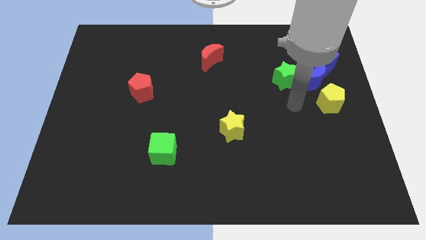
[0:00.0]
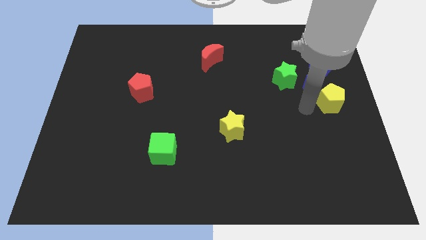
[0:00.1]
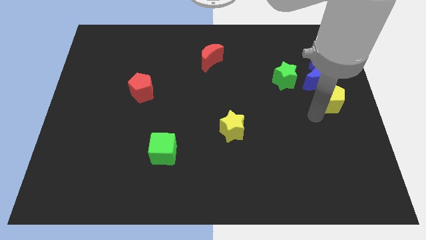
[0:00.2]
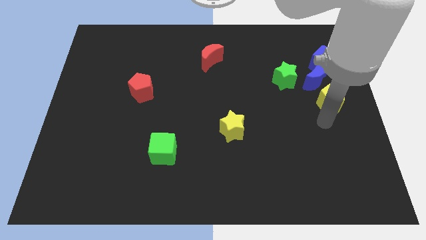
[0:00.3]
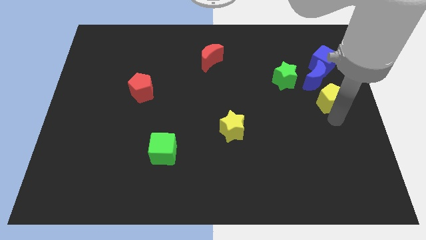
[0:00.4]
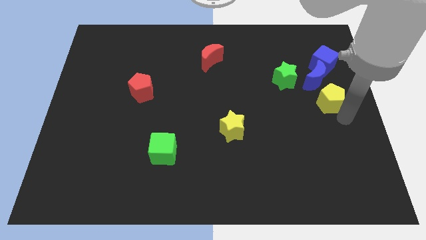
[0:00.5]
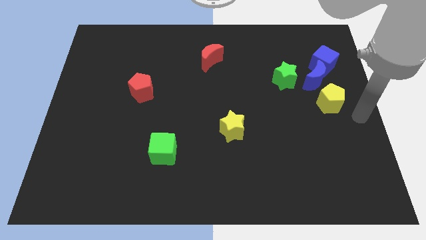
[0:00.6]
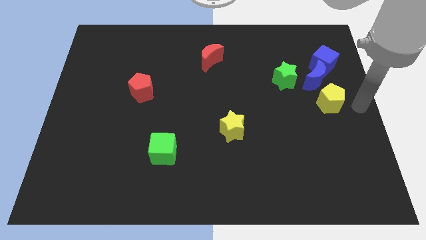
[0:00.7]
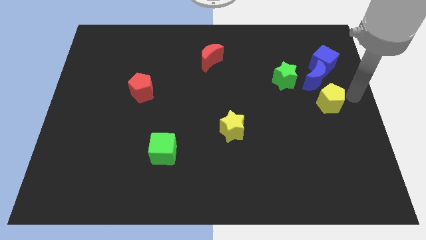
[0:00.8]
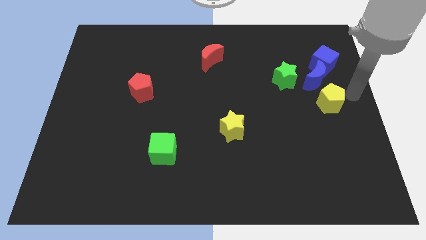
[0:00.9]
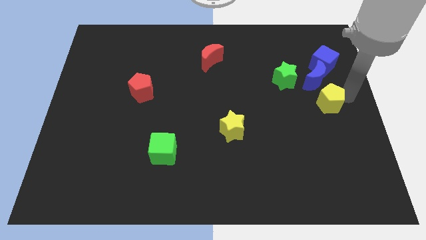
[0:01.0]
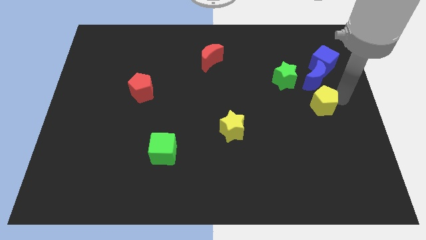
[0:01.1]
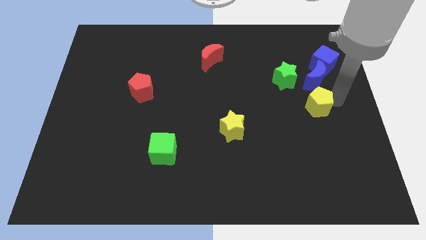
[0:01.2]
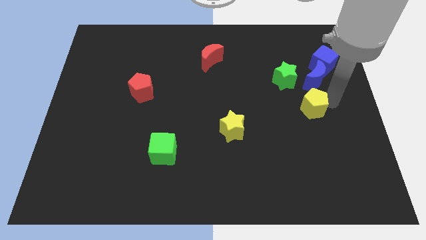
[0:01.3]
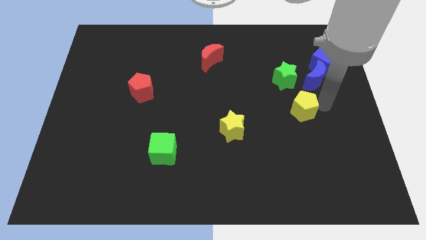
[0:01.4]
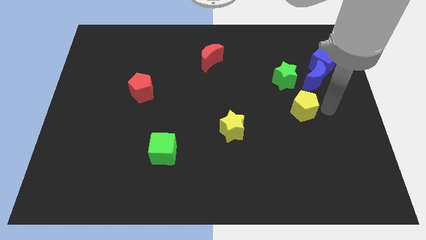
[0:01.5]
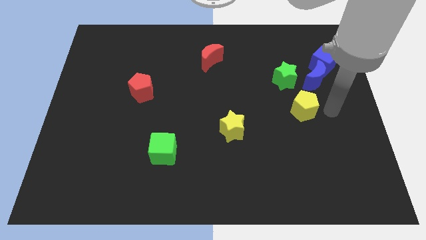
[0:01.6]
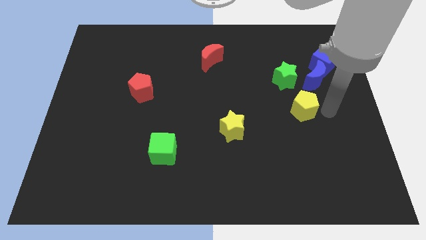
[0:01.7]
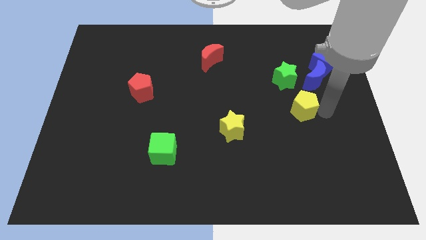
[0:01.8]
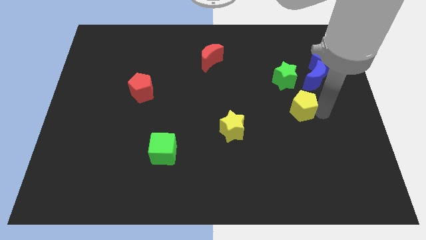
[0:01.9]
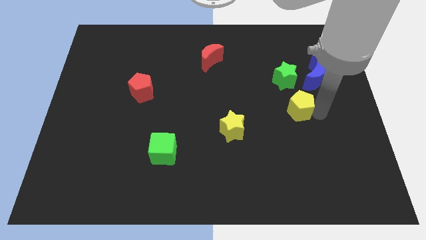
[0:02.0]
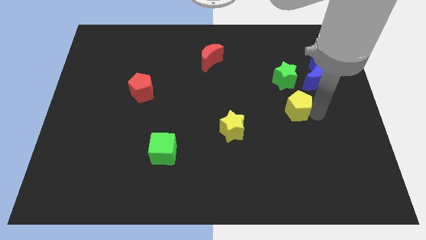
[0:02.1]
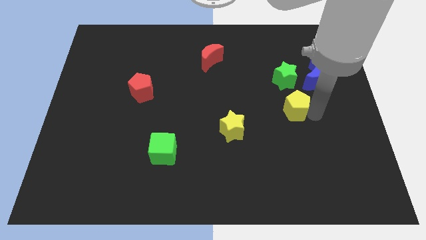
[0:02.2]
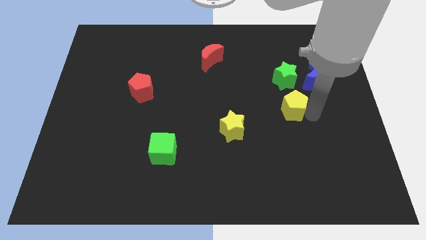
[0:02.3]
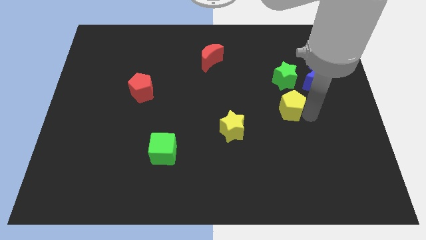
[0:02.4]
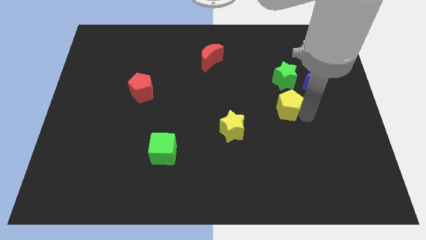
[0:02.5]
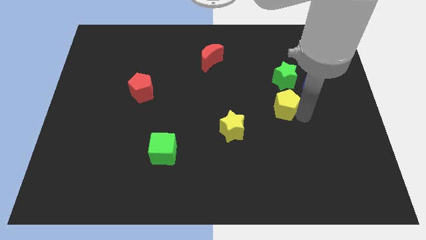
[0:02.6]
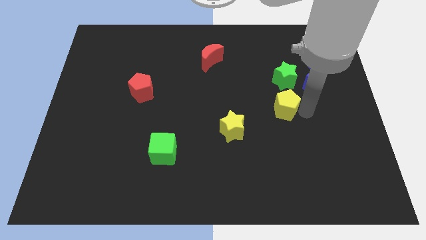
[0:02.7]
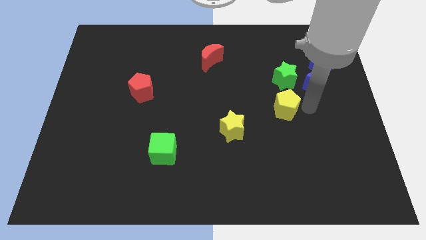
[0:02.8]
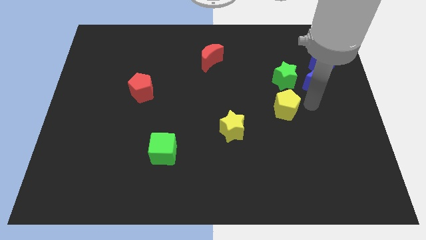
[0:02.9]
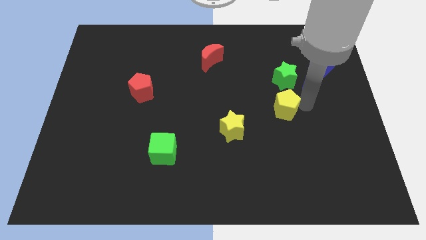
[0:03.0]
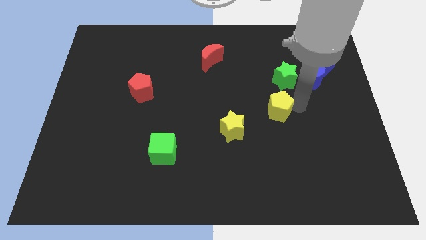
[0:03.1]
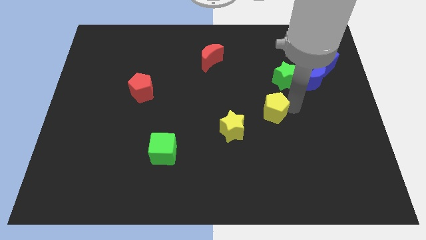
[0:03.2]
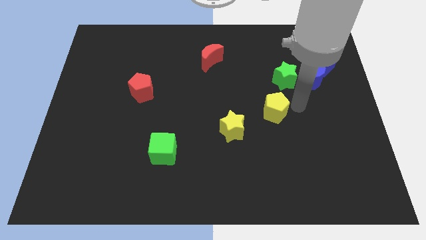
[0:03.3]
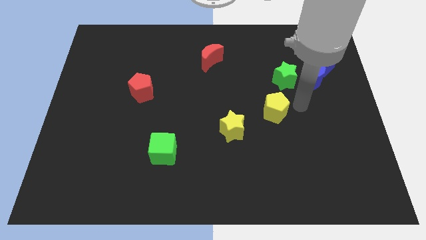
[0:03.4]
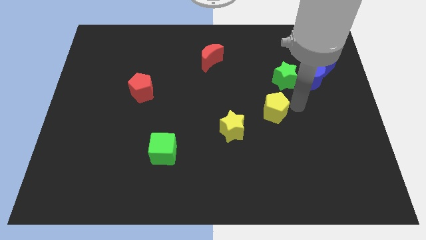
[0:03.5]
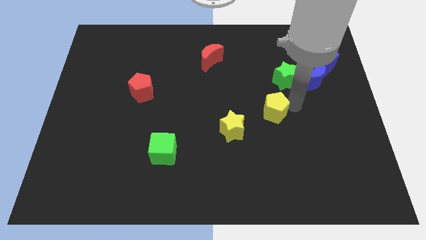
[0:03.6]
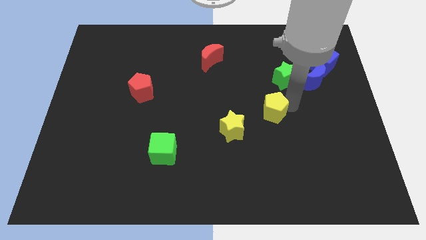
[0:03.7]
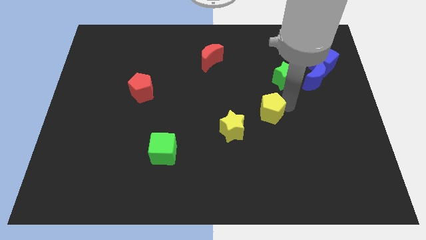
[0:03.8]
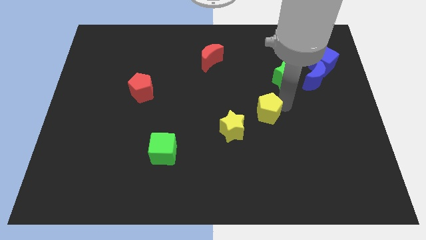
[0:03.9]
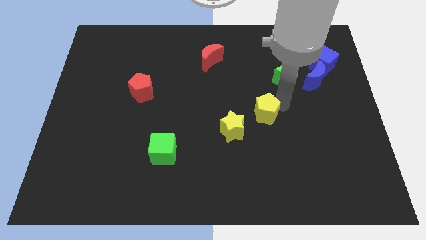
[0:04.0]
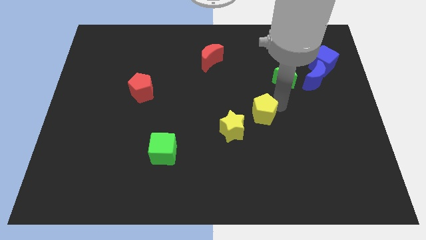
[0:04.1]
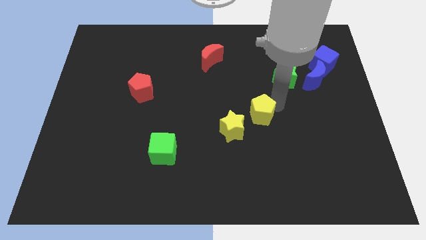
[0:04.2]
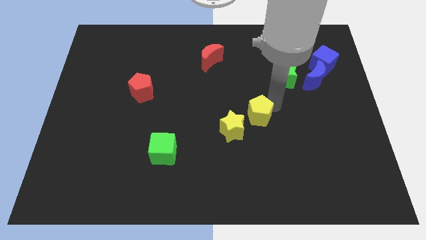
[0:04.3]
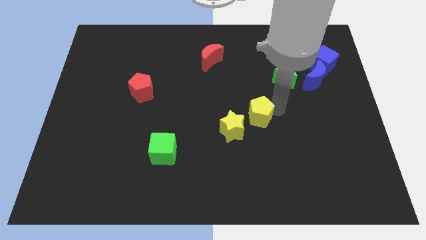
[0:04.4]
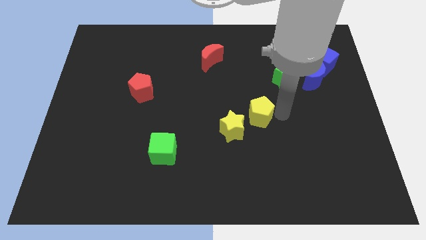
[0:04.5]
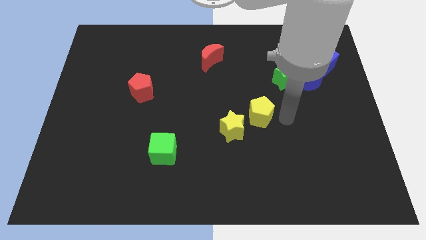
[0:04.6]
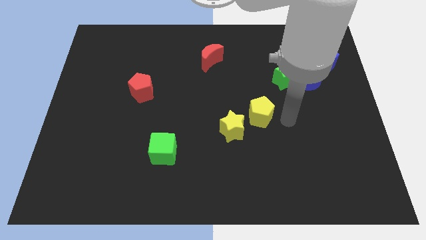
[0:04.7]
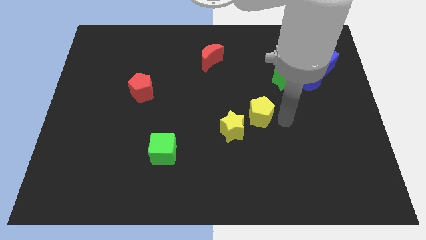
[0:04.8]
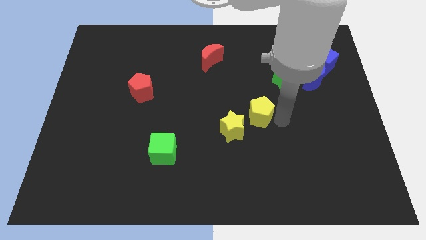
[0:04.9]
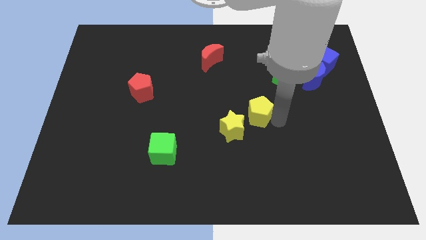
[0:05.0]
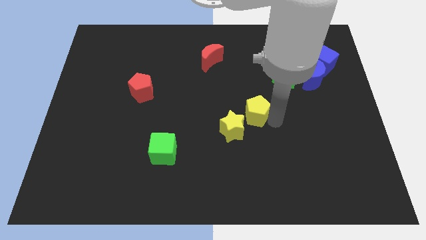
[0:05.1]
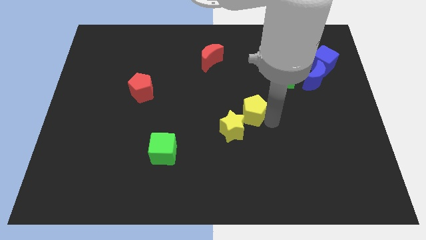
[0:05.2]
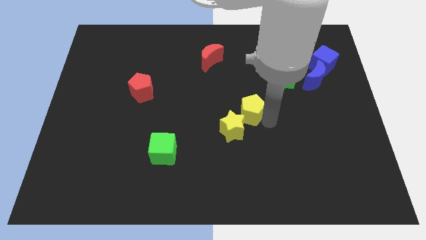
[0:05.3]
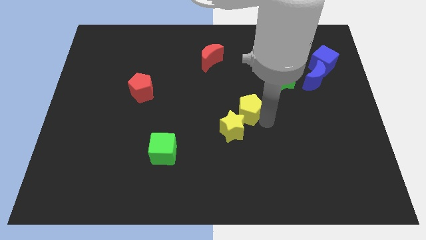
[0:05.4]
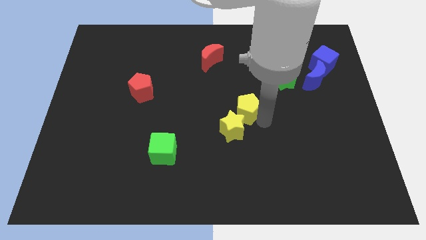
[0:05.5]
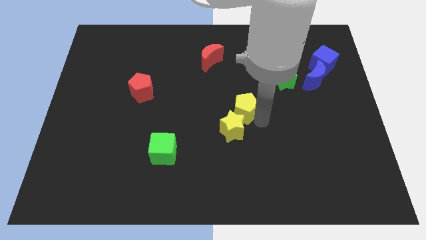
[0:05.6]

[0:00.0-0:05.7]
move the yellow pentagon left

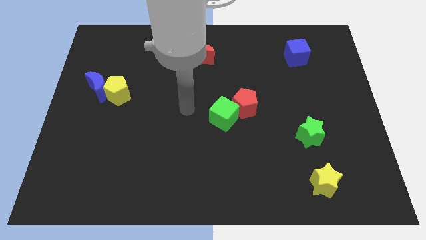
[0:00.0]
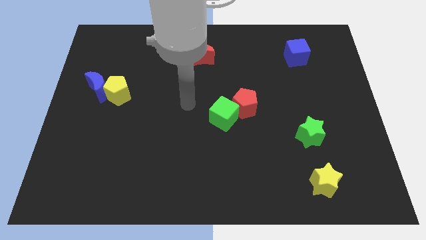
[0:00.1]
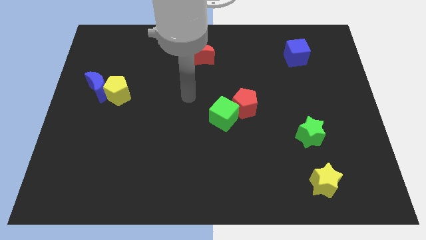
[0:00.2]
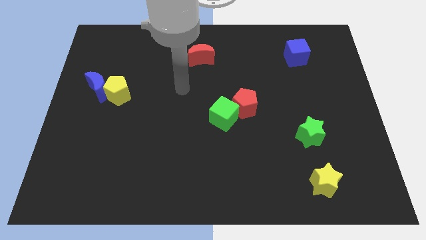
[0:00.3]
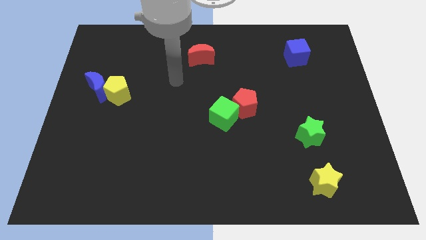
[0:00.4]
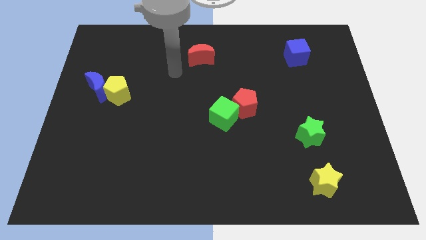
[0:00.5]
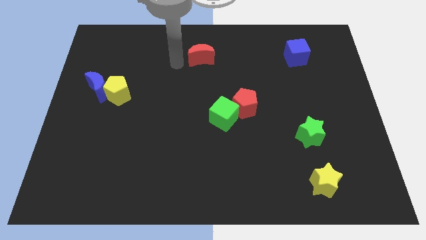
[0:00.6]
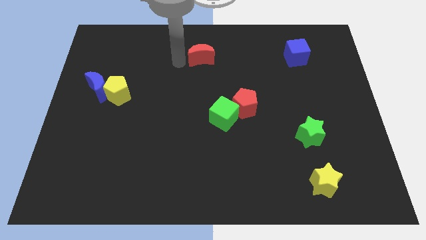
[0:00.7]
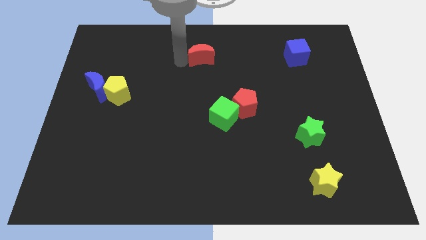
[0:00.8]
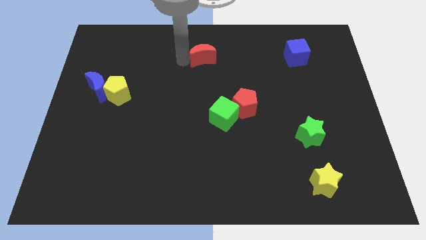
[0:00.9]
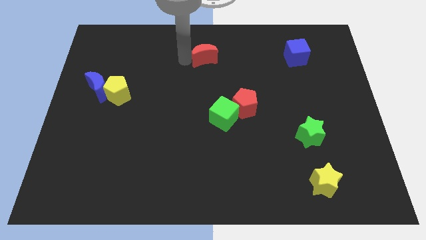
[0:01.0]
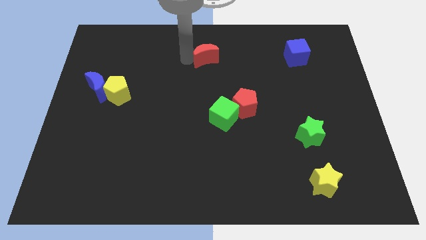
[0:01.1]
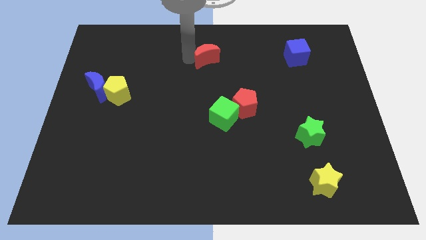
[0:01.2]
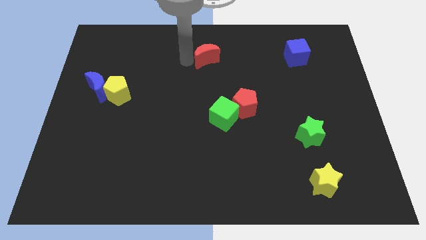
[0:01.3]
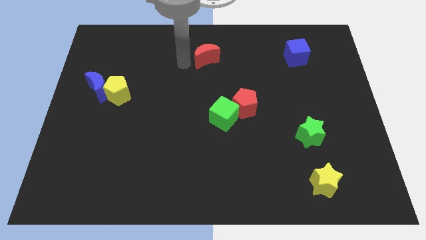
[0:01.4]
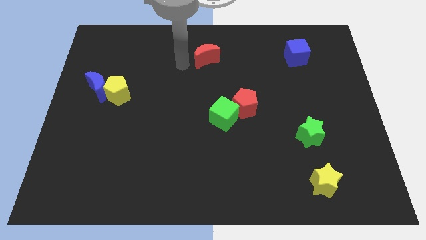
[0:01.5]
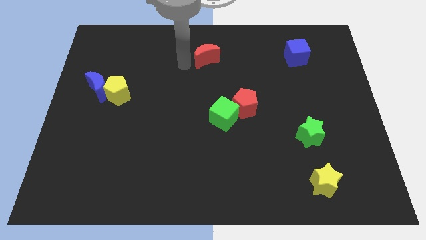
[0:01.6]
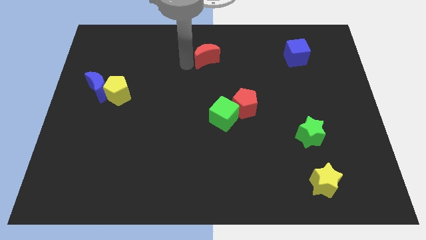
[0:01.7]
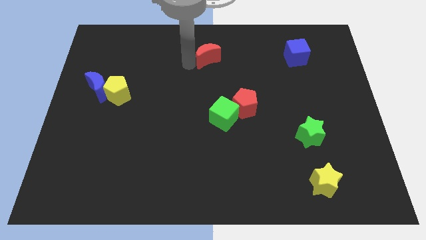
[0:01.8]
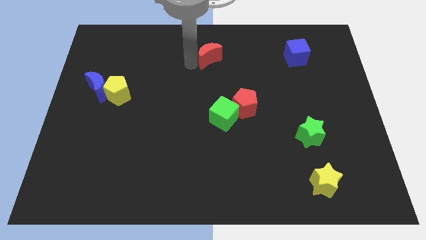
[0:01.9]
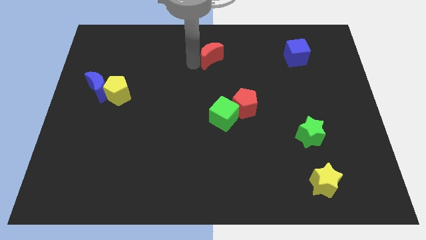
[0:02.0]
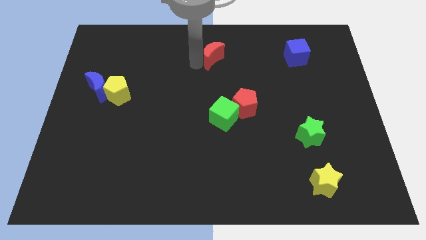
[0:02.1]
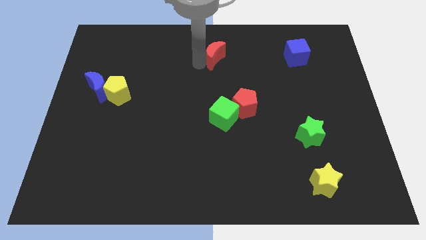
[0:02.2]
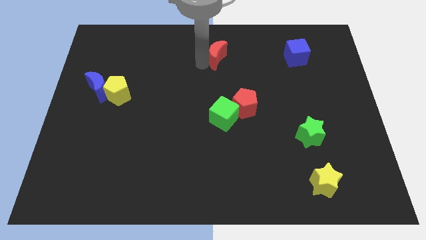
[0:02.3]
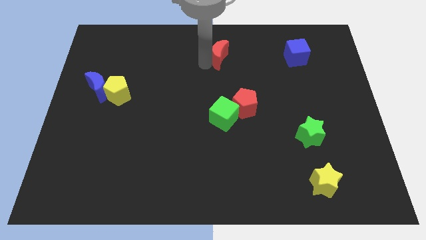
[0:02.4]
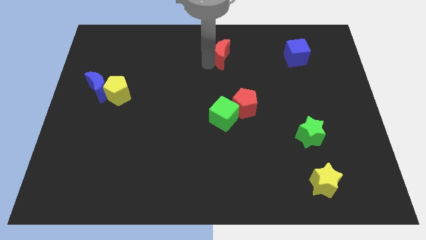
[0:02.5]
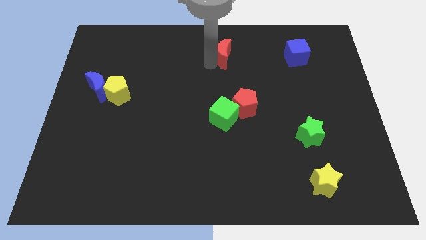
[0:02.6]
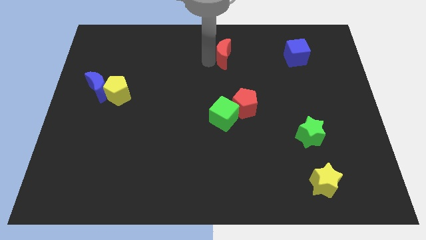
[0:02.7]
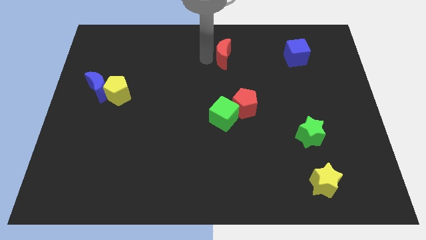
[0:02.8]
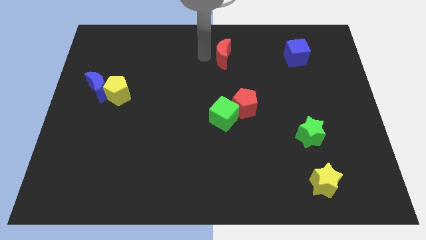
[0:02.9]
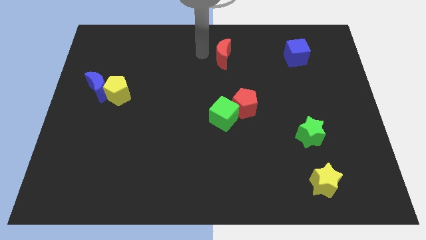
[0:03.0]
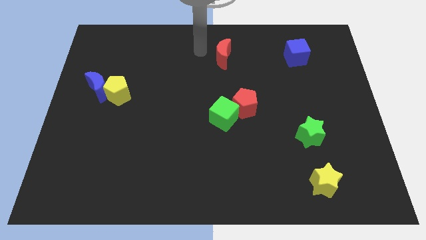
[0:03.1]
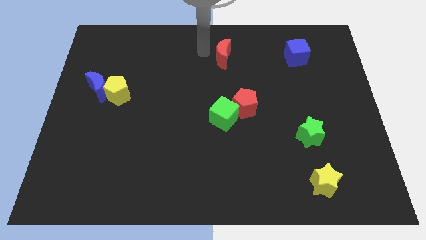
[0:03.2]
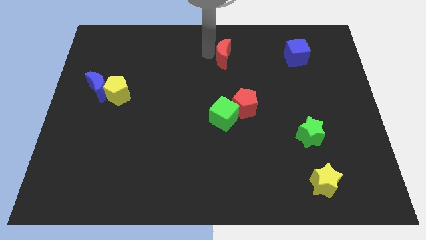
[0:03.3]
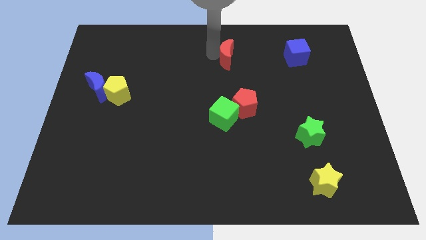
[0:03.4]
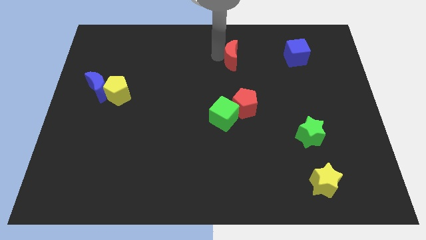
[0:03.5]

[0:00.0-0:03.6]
slightly slide the red moon to the right
